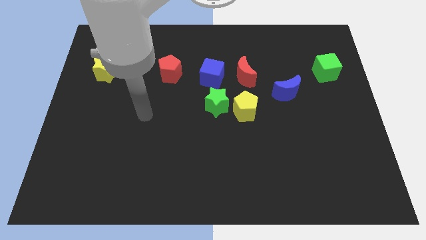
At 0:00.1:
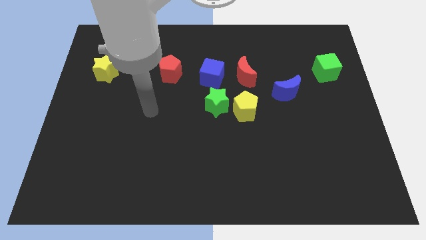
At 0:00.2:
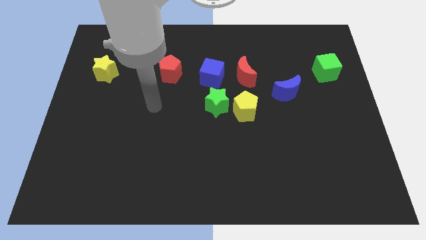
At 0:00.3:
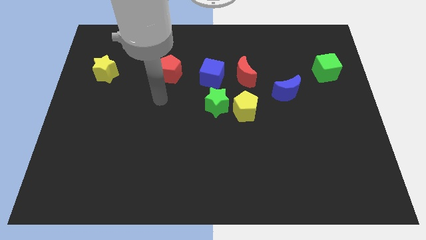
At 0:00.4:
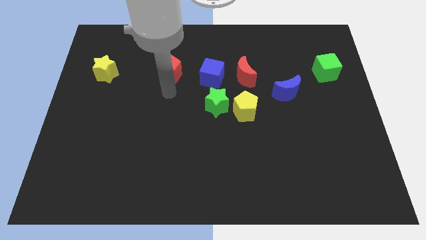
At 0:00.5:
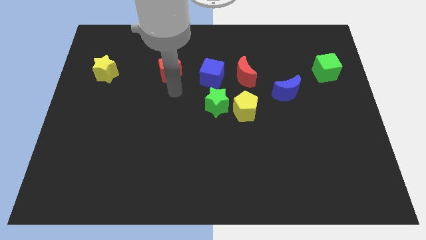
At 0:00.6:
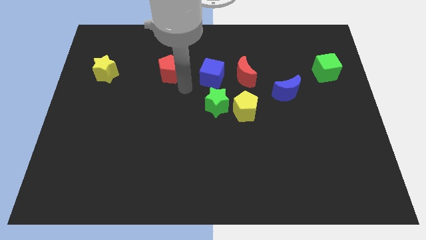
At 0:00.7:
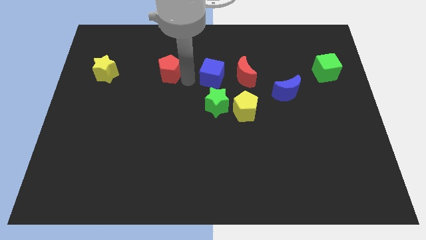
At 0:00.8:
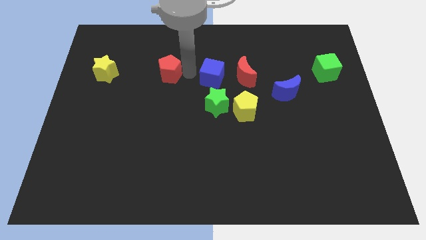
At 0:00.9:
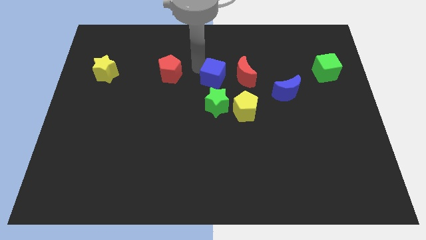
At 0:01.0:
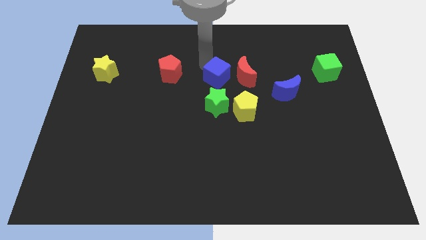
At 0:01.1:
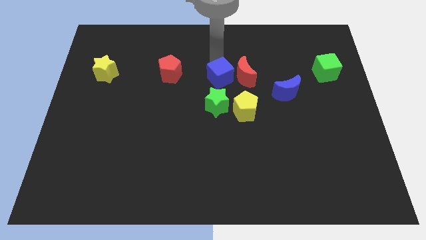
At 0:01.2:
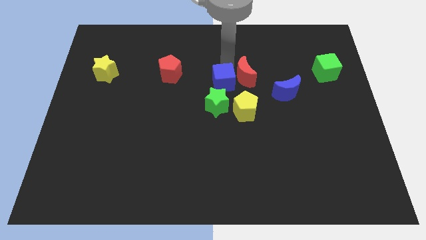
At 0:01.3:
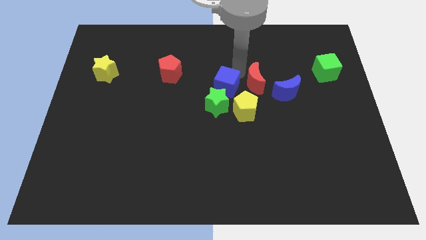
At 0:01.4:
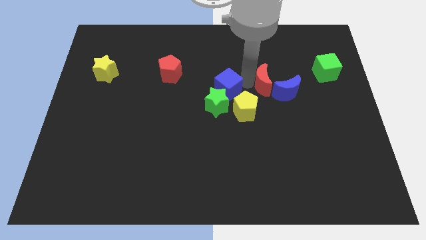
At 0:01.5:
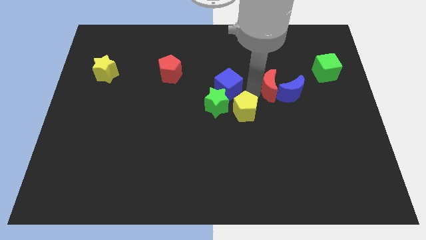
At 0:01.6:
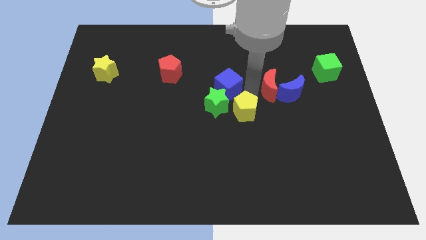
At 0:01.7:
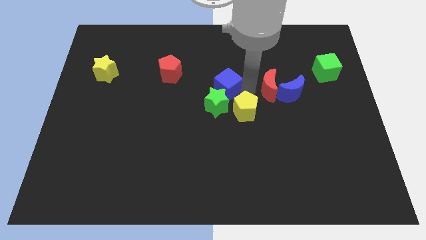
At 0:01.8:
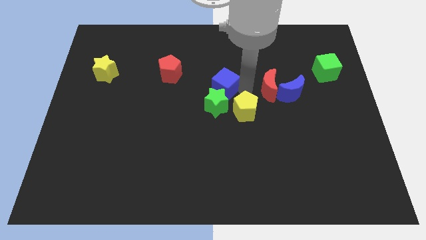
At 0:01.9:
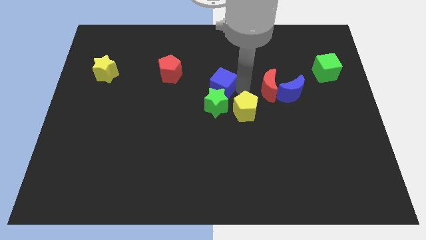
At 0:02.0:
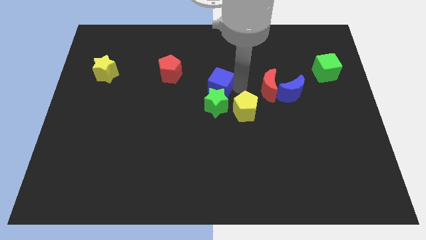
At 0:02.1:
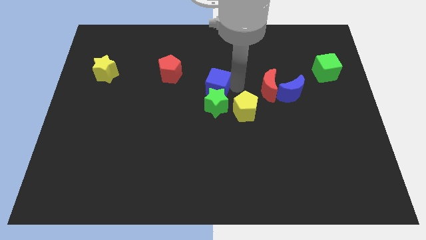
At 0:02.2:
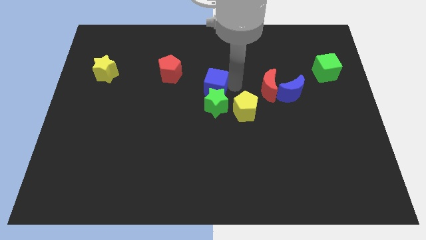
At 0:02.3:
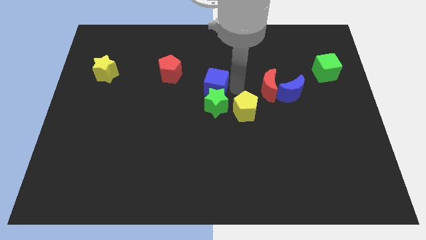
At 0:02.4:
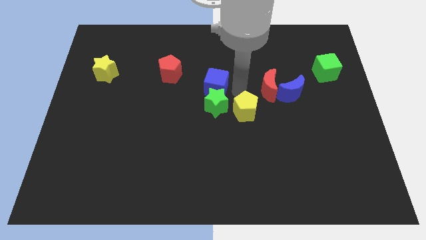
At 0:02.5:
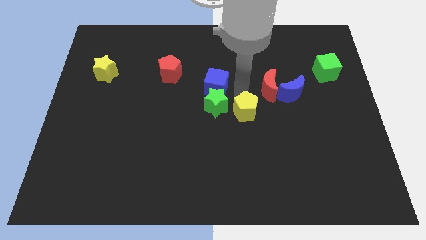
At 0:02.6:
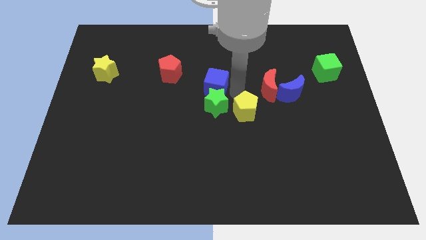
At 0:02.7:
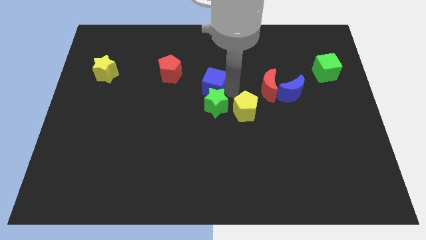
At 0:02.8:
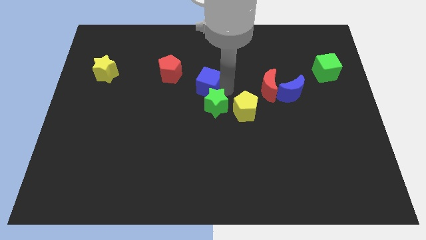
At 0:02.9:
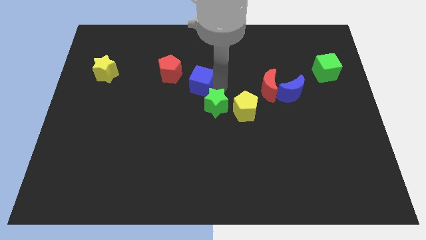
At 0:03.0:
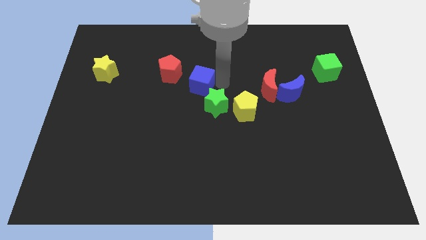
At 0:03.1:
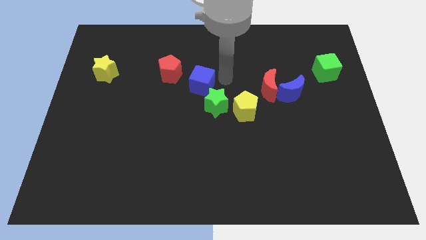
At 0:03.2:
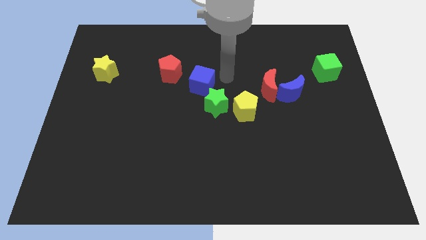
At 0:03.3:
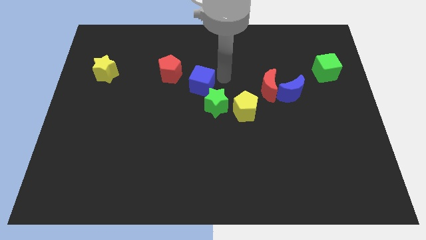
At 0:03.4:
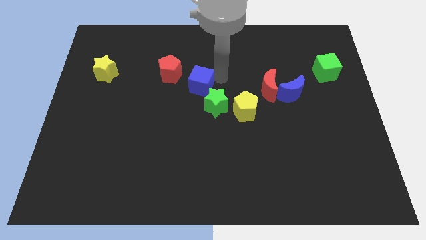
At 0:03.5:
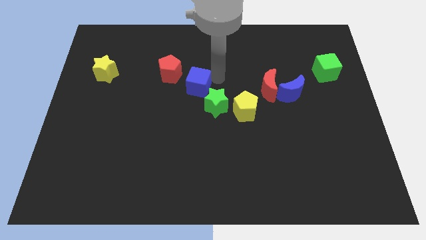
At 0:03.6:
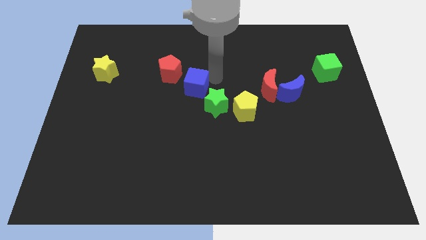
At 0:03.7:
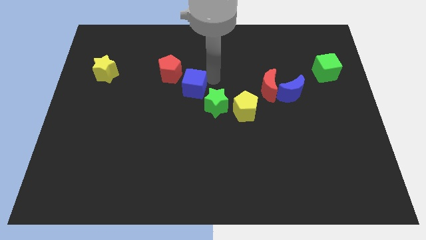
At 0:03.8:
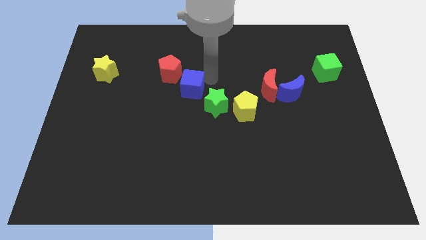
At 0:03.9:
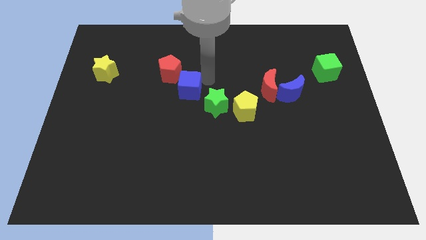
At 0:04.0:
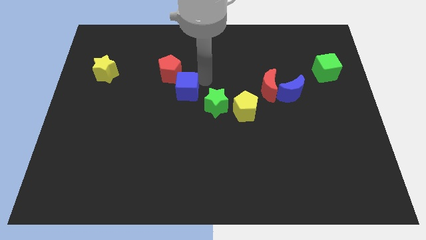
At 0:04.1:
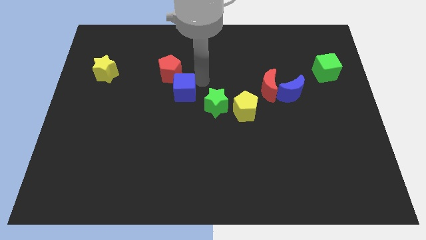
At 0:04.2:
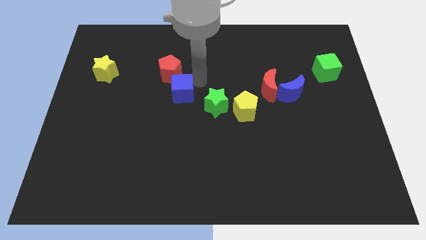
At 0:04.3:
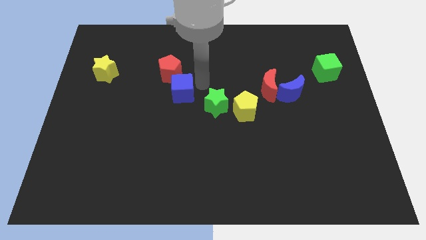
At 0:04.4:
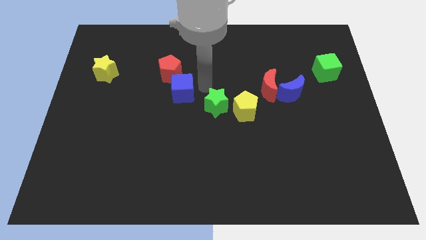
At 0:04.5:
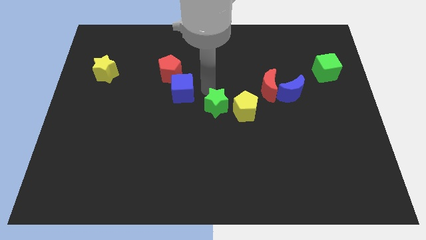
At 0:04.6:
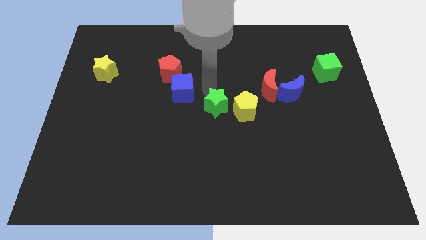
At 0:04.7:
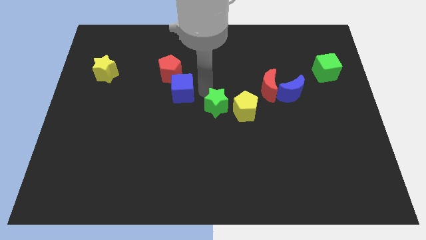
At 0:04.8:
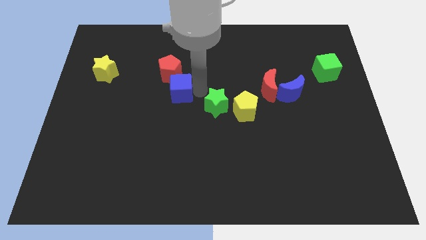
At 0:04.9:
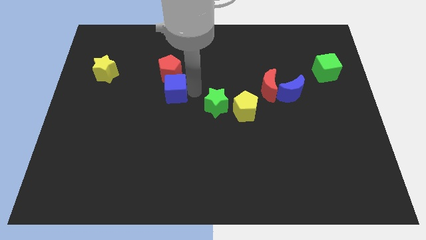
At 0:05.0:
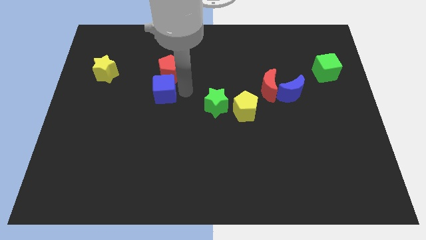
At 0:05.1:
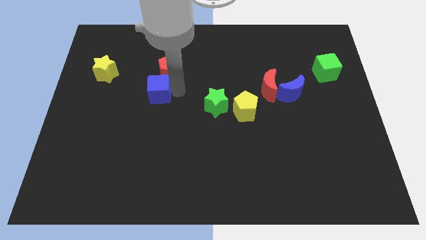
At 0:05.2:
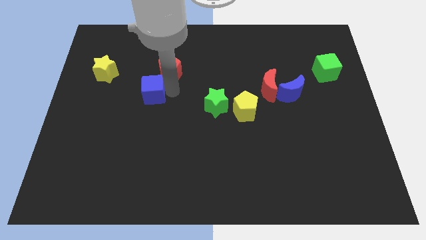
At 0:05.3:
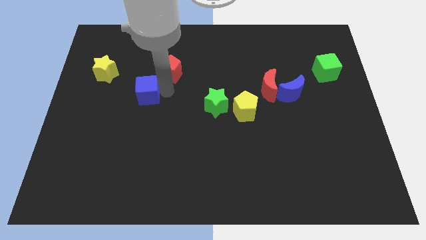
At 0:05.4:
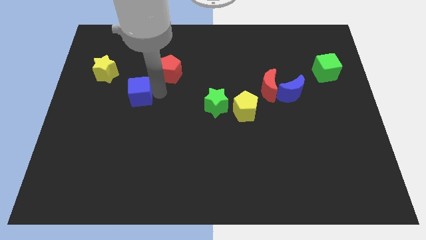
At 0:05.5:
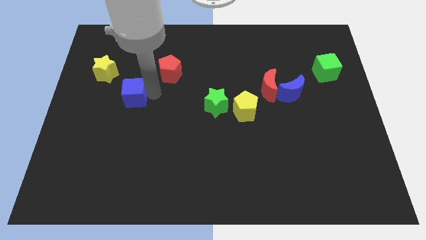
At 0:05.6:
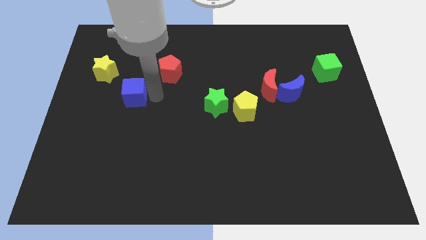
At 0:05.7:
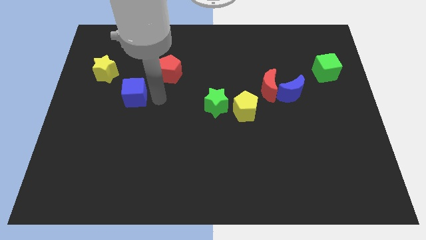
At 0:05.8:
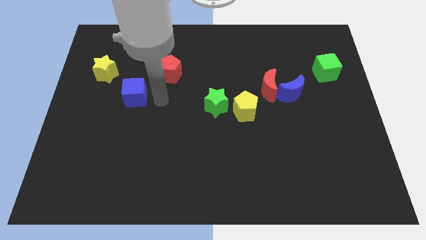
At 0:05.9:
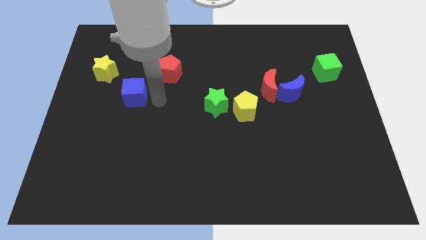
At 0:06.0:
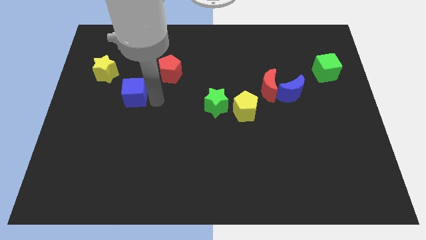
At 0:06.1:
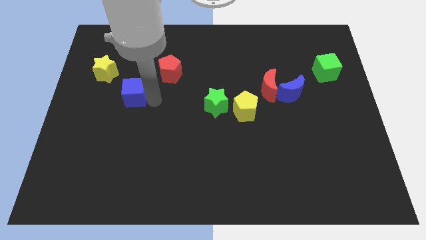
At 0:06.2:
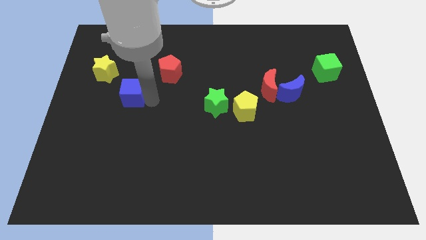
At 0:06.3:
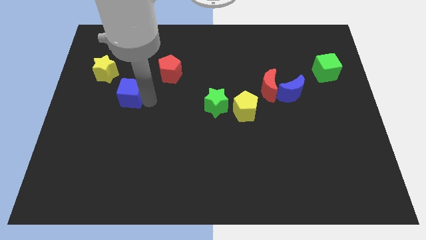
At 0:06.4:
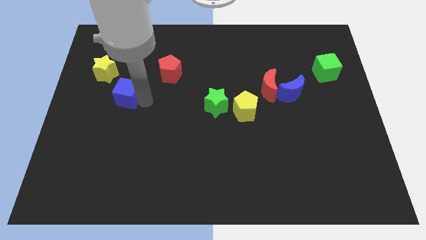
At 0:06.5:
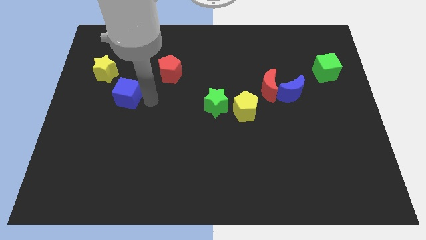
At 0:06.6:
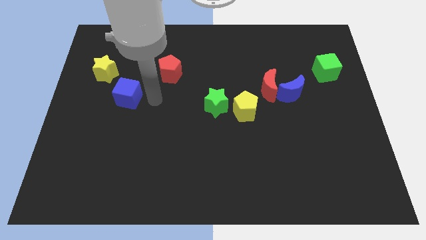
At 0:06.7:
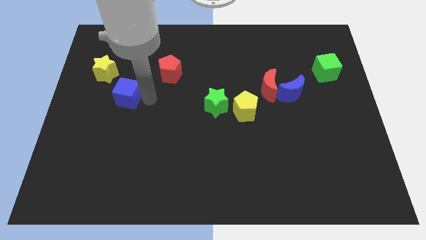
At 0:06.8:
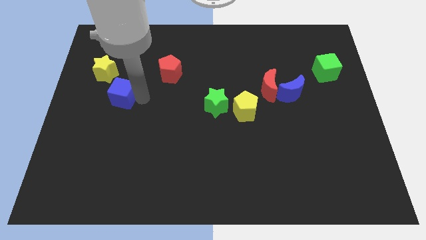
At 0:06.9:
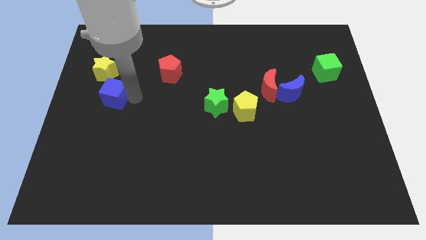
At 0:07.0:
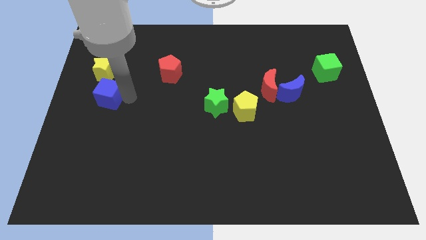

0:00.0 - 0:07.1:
put the blue cube to the left side
